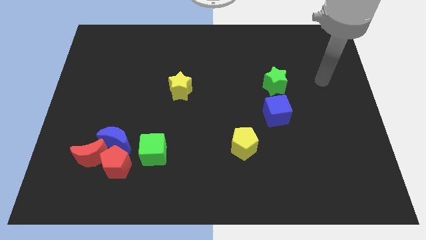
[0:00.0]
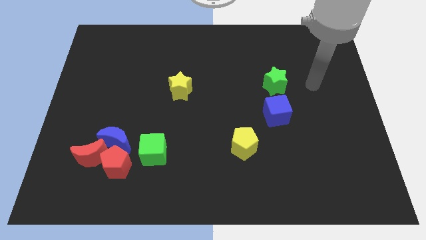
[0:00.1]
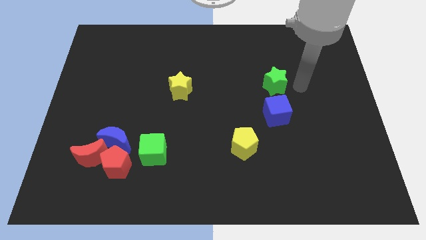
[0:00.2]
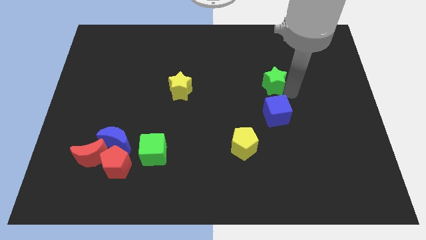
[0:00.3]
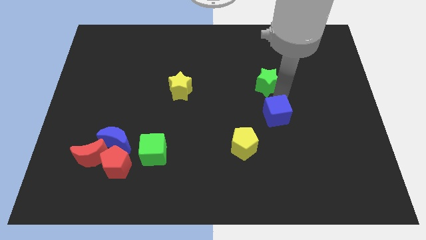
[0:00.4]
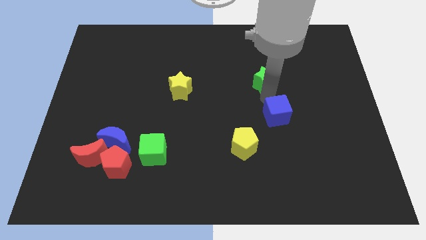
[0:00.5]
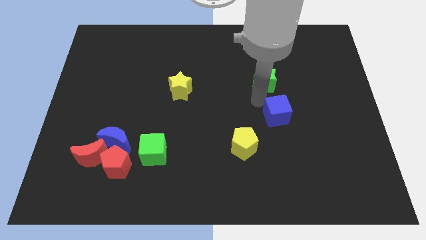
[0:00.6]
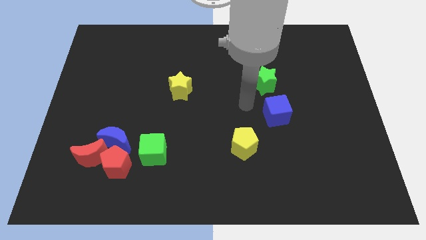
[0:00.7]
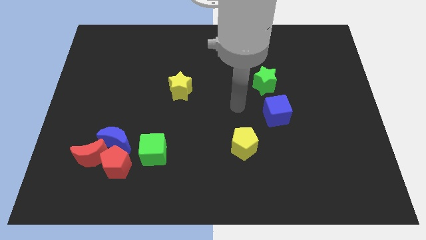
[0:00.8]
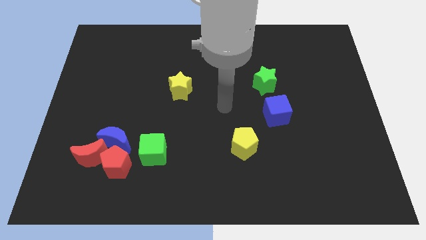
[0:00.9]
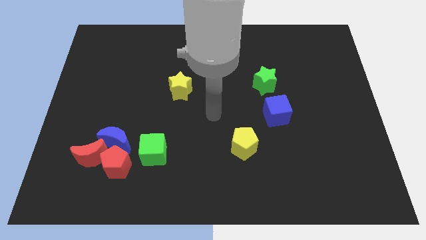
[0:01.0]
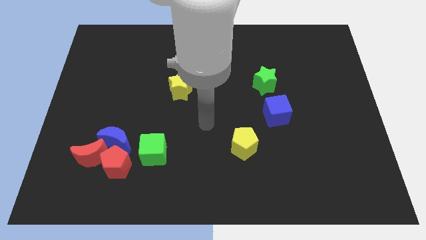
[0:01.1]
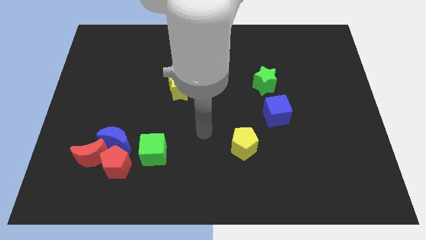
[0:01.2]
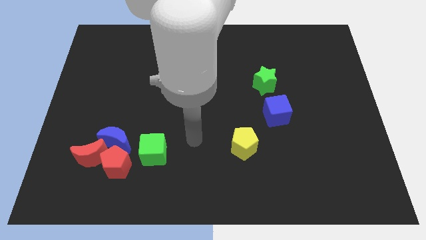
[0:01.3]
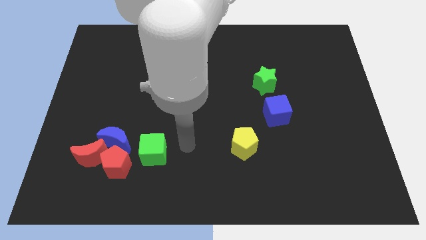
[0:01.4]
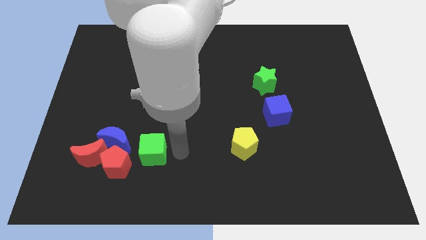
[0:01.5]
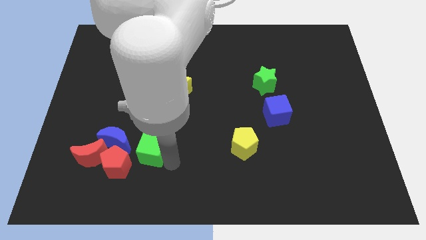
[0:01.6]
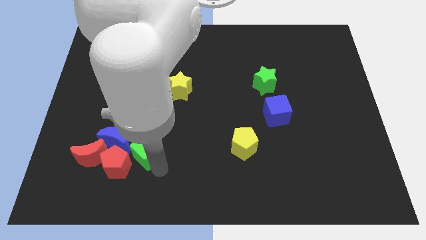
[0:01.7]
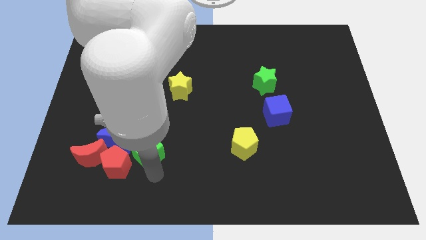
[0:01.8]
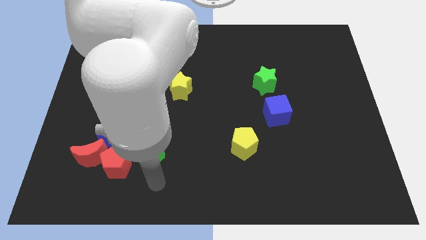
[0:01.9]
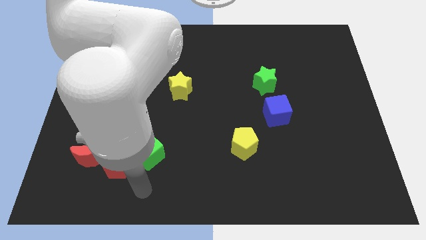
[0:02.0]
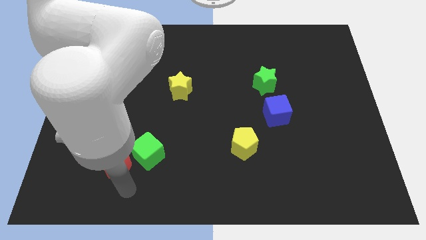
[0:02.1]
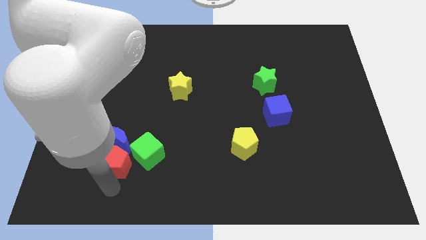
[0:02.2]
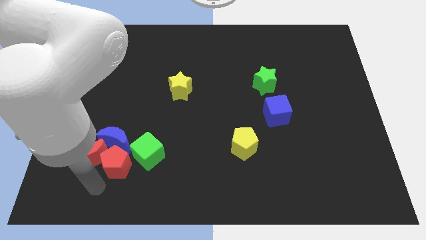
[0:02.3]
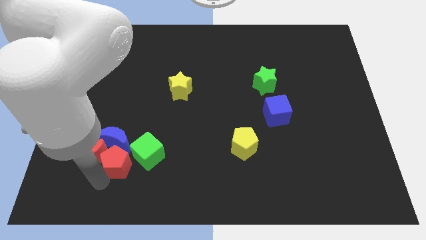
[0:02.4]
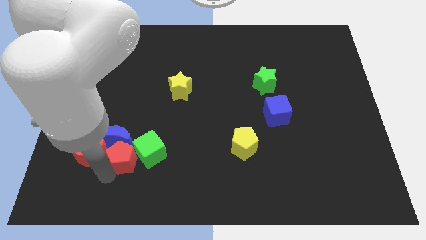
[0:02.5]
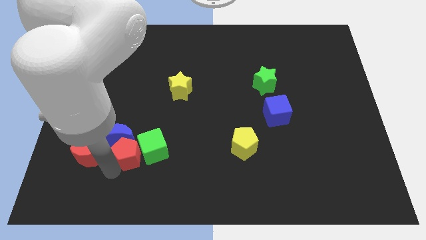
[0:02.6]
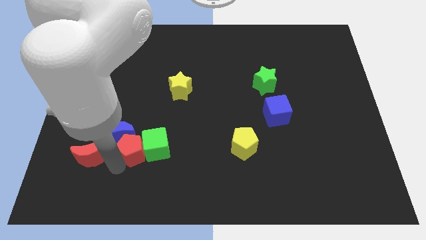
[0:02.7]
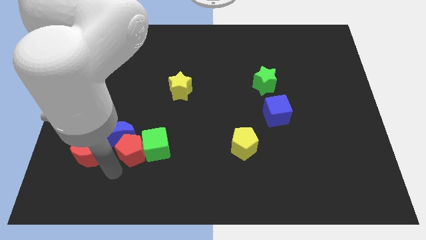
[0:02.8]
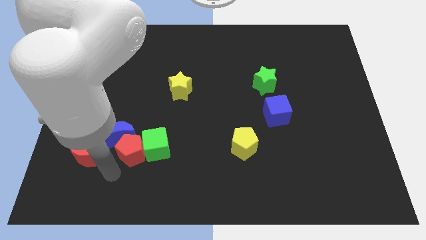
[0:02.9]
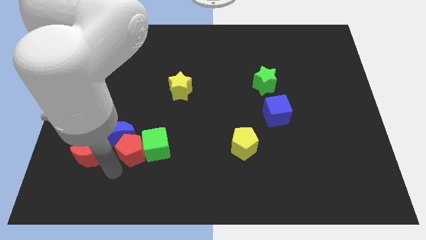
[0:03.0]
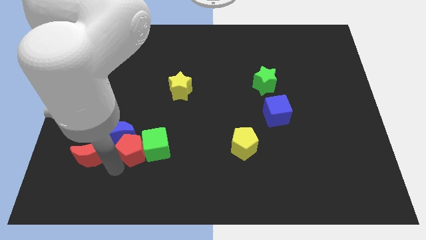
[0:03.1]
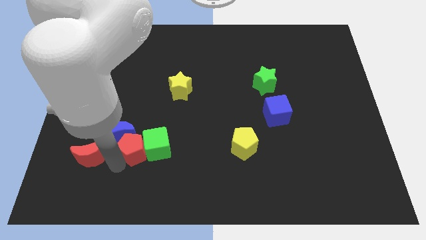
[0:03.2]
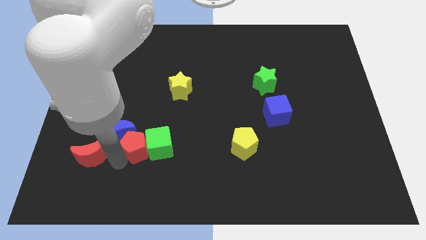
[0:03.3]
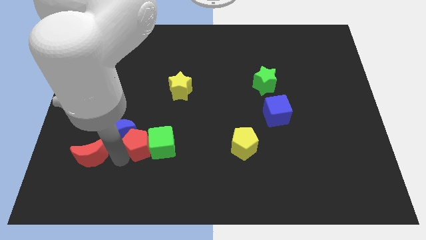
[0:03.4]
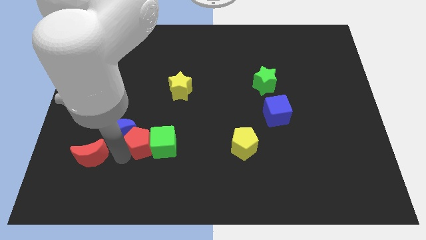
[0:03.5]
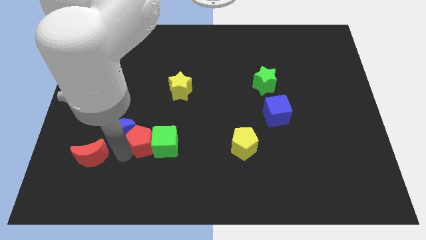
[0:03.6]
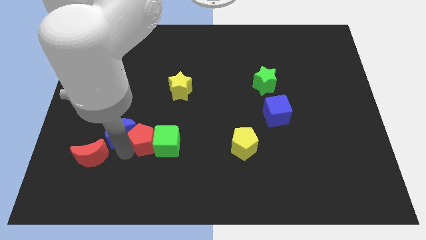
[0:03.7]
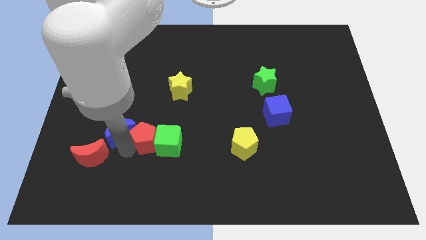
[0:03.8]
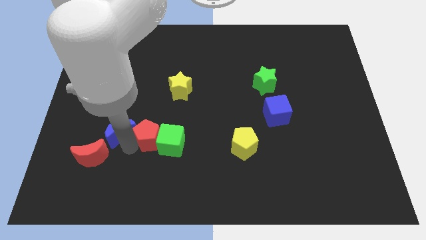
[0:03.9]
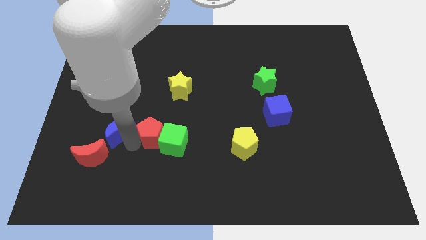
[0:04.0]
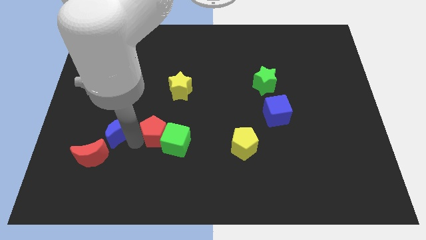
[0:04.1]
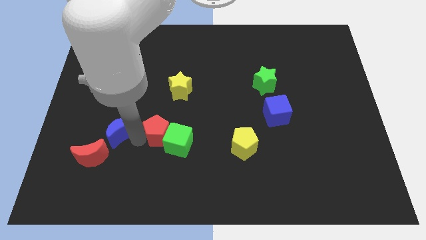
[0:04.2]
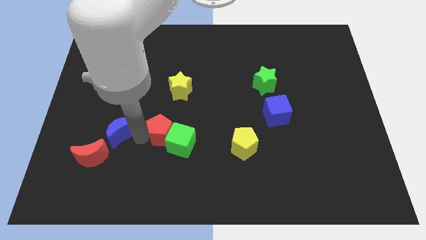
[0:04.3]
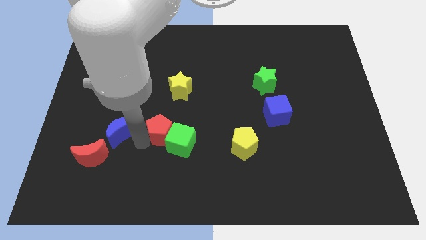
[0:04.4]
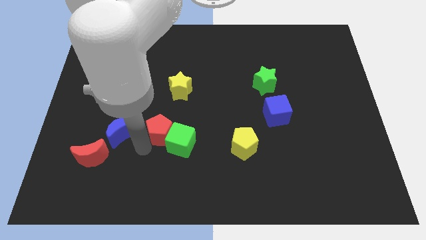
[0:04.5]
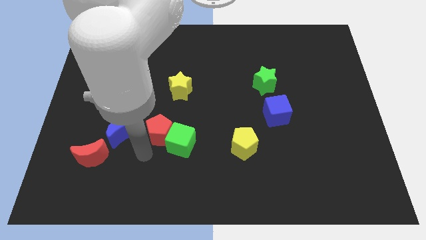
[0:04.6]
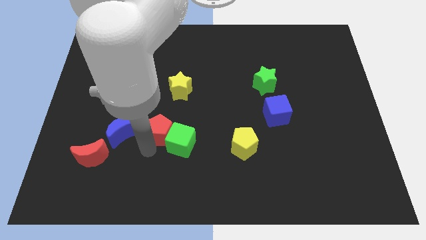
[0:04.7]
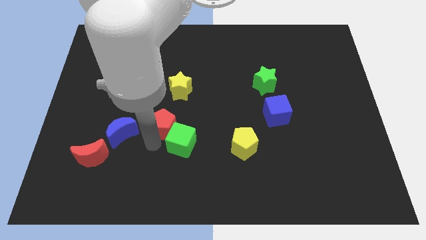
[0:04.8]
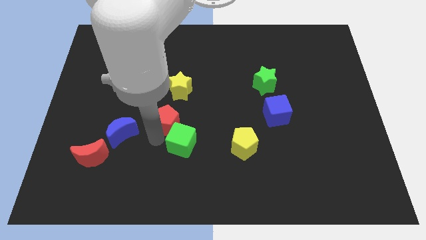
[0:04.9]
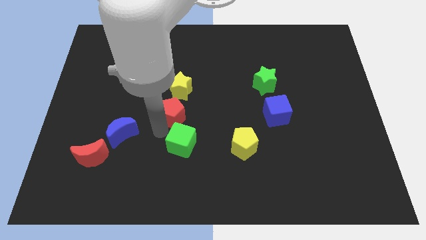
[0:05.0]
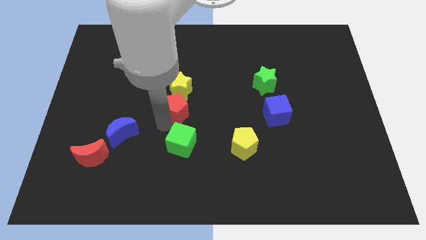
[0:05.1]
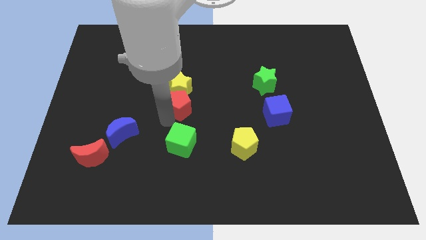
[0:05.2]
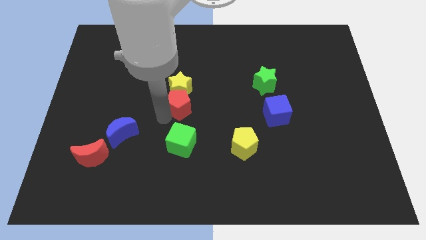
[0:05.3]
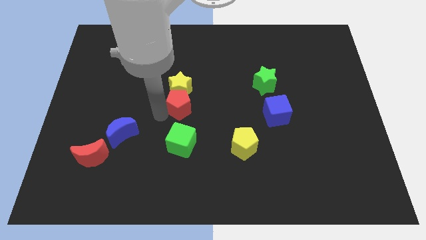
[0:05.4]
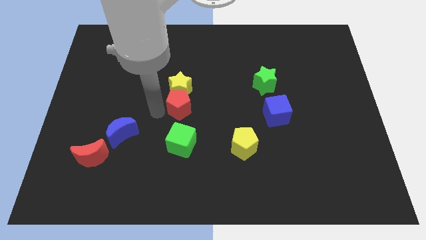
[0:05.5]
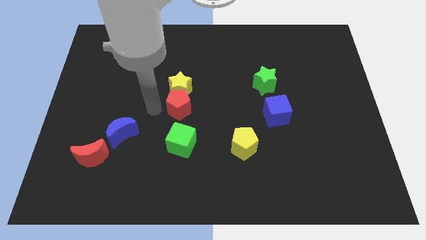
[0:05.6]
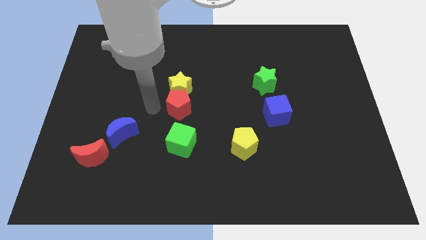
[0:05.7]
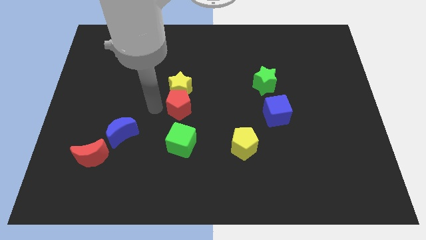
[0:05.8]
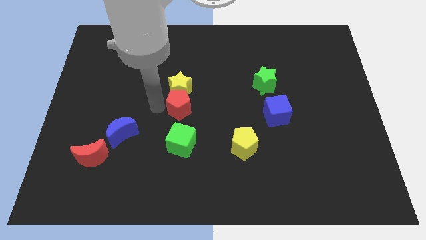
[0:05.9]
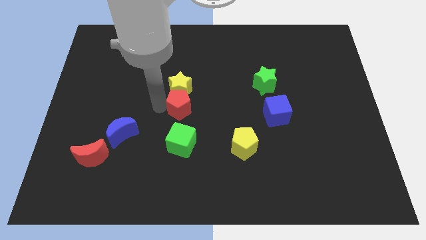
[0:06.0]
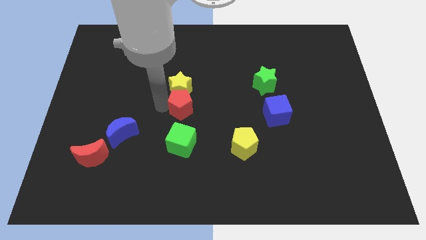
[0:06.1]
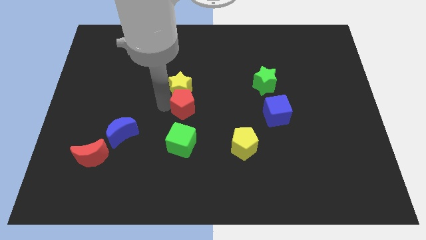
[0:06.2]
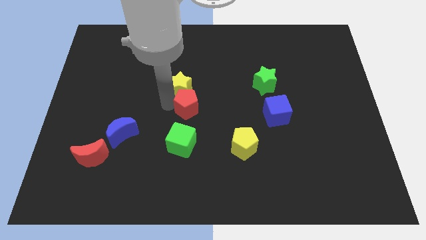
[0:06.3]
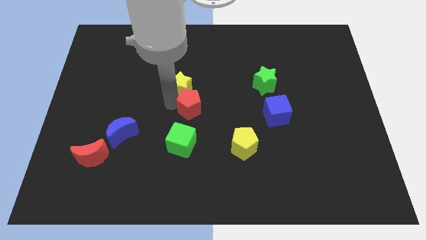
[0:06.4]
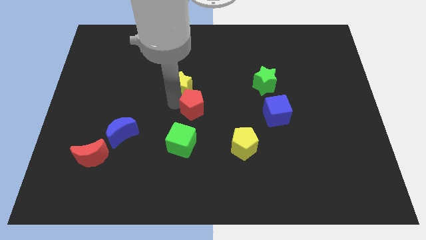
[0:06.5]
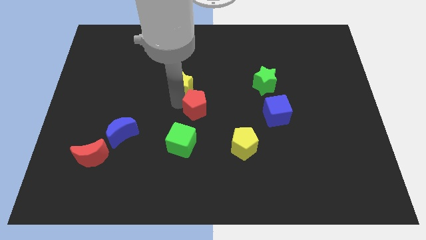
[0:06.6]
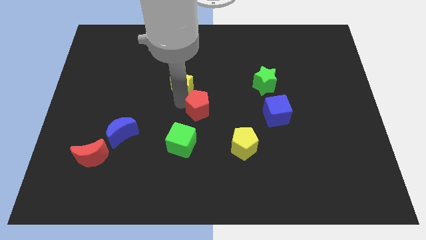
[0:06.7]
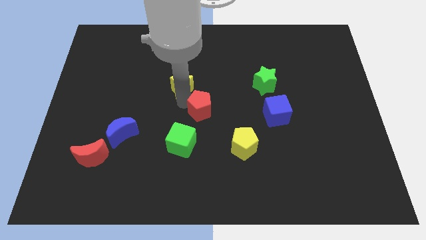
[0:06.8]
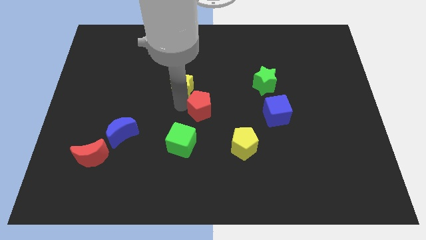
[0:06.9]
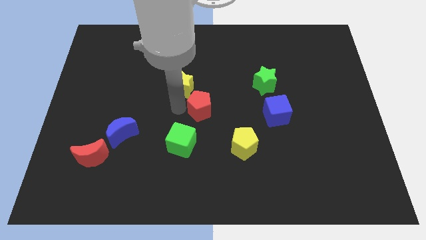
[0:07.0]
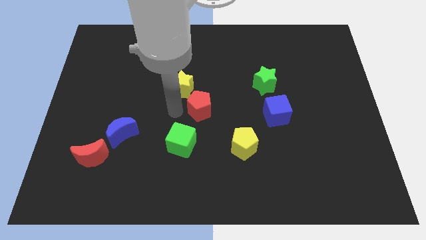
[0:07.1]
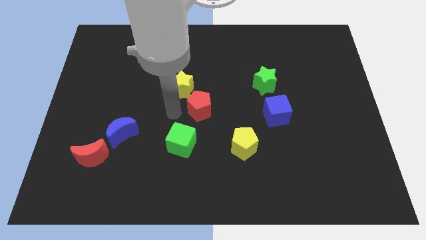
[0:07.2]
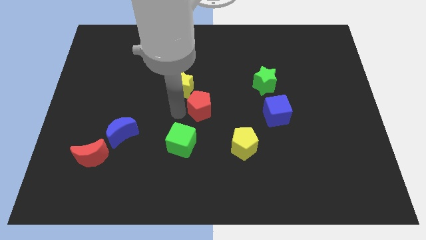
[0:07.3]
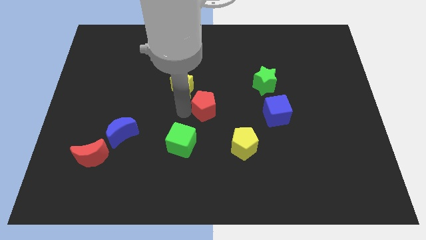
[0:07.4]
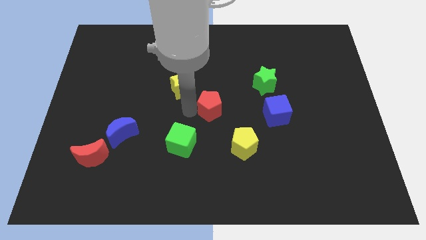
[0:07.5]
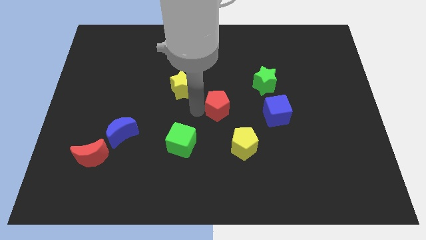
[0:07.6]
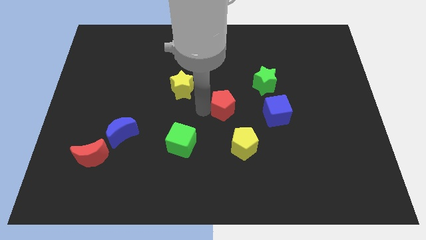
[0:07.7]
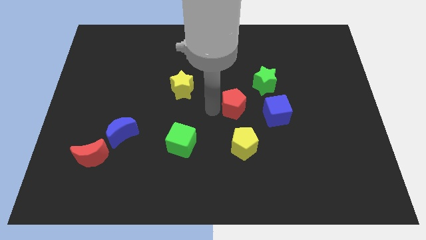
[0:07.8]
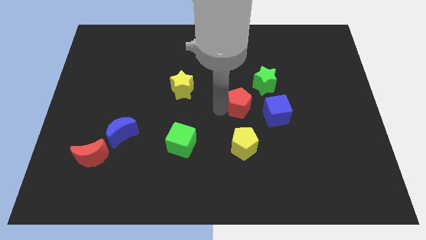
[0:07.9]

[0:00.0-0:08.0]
move the red pentagon to the top left of the blue cube
